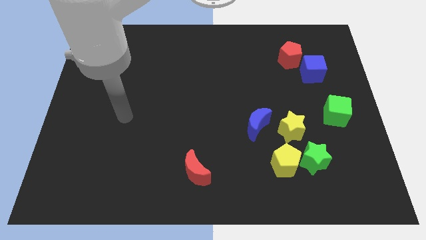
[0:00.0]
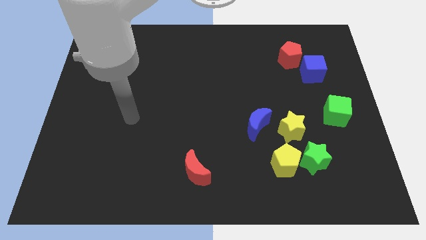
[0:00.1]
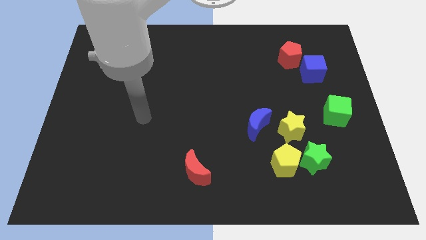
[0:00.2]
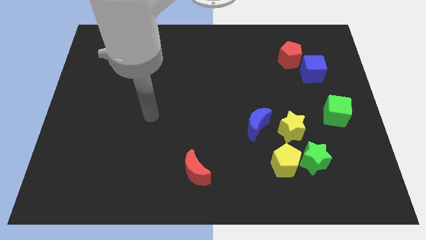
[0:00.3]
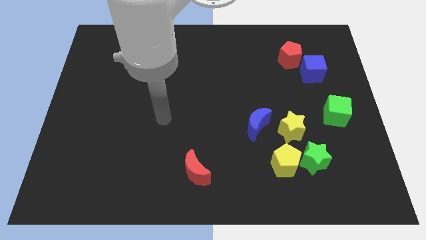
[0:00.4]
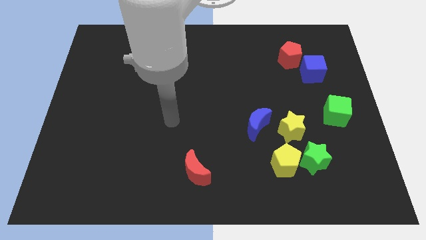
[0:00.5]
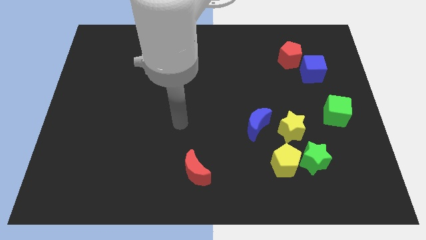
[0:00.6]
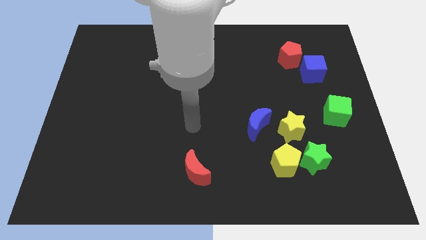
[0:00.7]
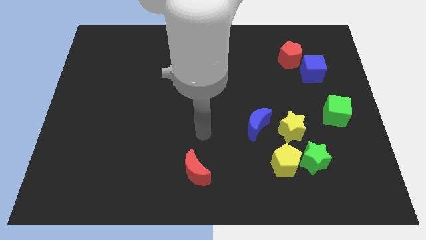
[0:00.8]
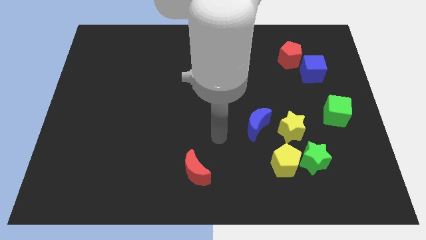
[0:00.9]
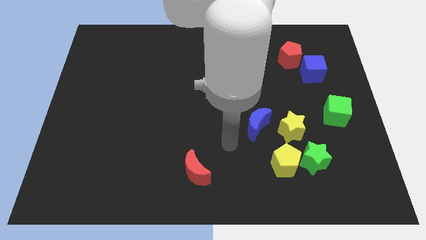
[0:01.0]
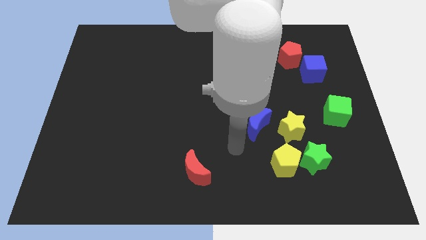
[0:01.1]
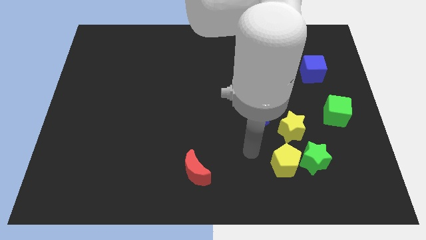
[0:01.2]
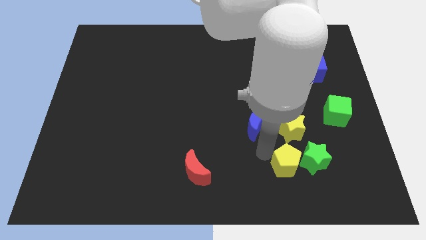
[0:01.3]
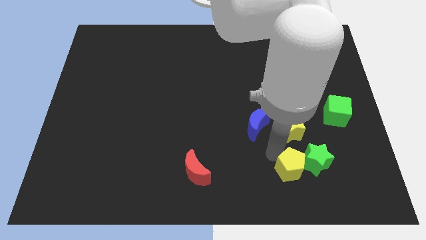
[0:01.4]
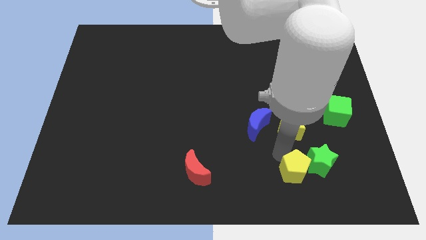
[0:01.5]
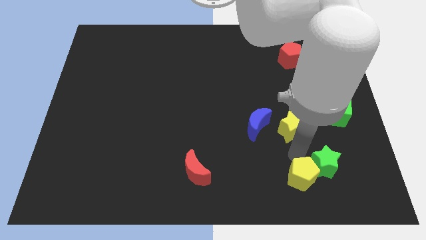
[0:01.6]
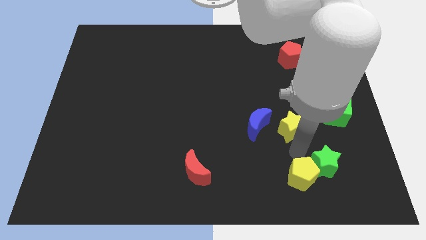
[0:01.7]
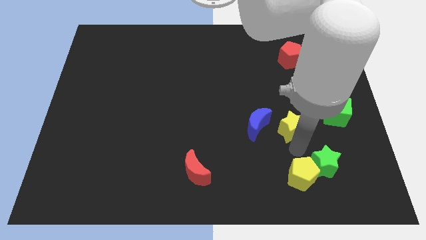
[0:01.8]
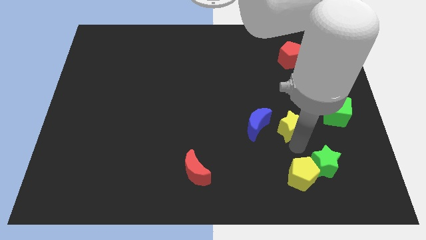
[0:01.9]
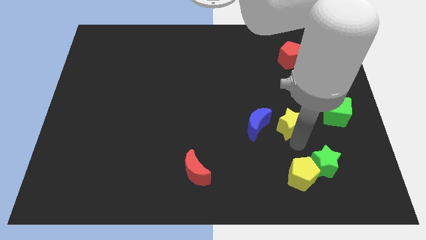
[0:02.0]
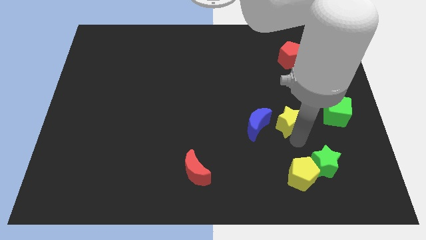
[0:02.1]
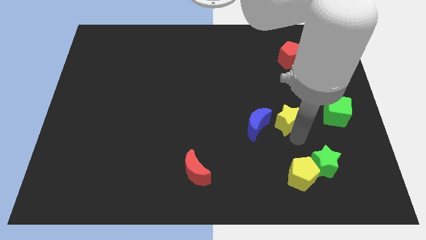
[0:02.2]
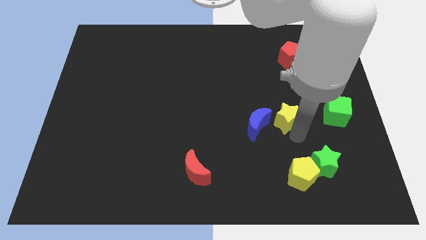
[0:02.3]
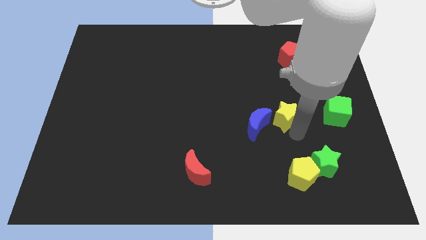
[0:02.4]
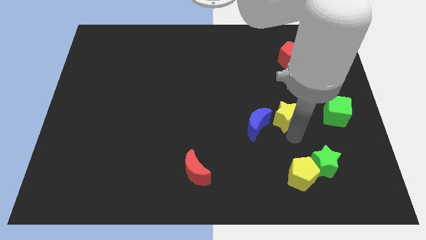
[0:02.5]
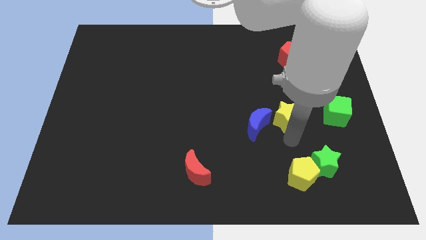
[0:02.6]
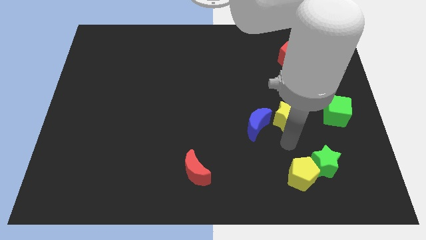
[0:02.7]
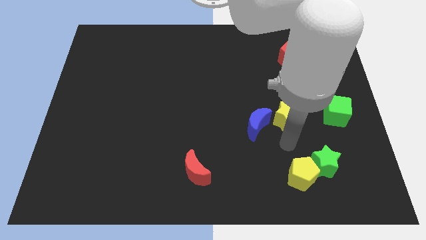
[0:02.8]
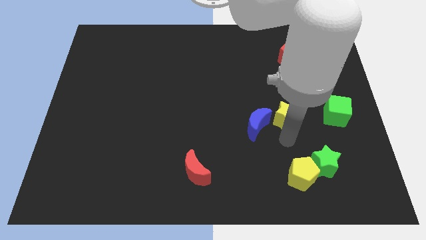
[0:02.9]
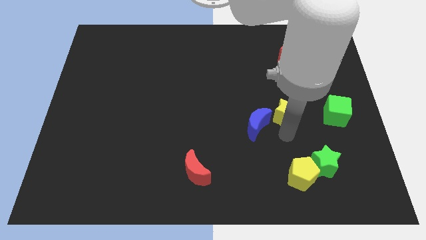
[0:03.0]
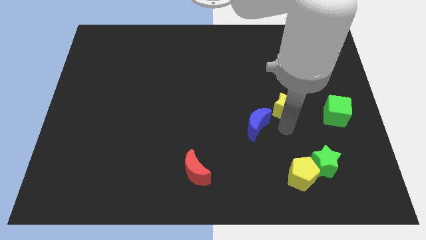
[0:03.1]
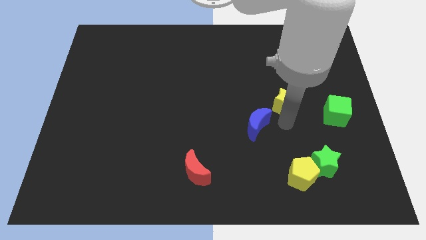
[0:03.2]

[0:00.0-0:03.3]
slide the yellow star somewhat upwards

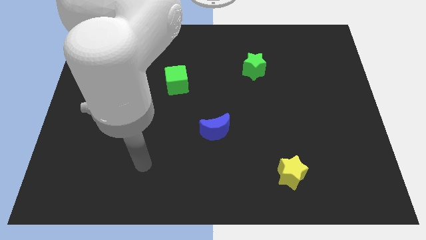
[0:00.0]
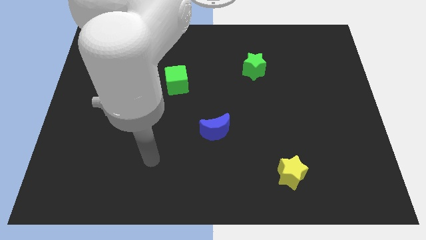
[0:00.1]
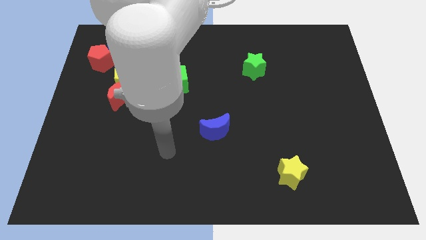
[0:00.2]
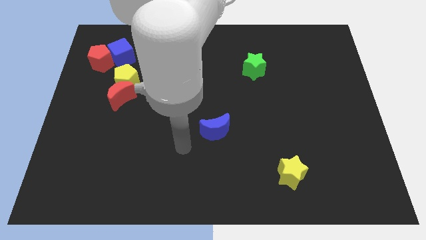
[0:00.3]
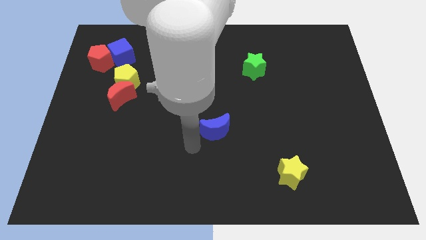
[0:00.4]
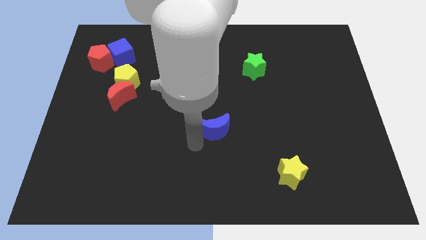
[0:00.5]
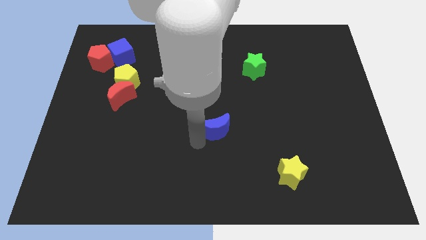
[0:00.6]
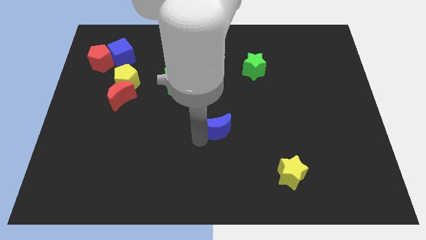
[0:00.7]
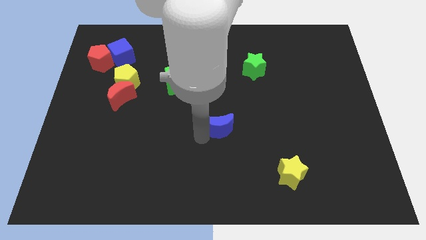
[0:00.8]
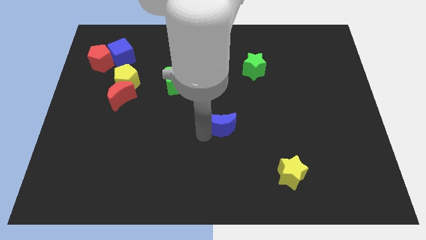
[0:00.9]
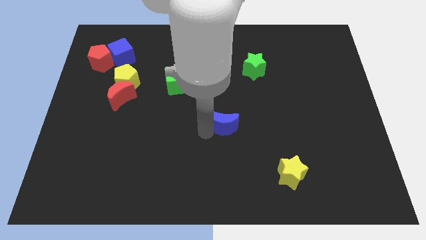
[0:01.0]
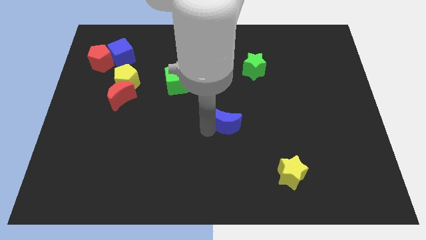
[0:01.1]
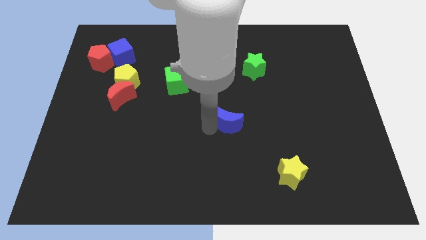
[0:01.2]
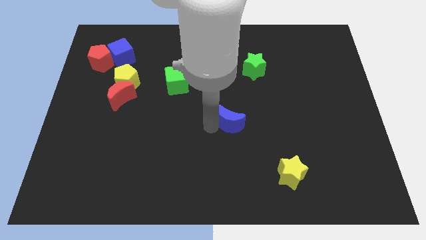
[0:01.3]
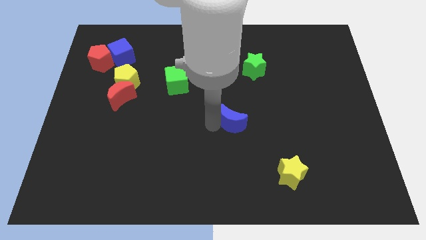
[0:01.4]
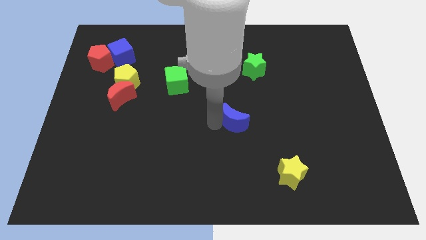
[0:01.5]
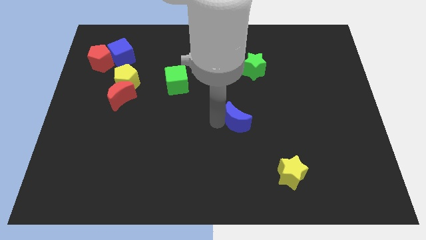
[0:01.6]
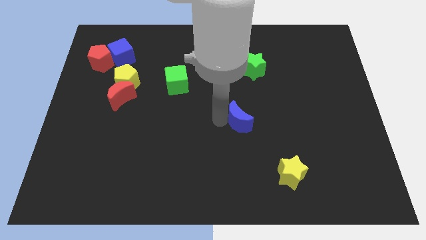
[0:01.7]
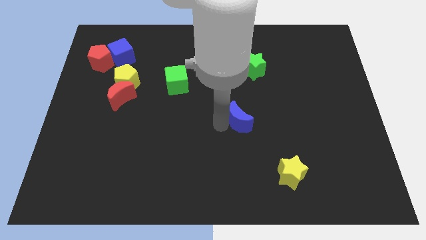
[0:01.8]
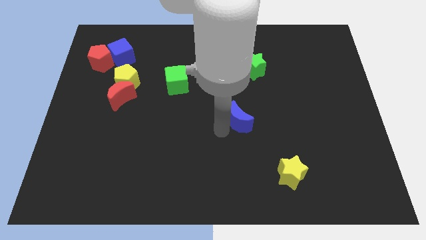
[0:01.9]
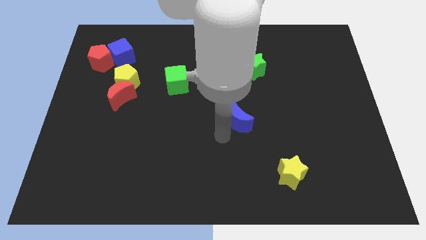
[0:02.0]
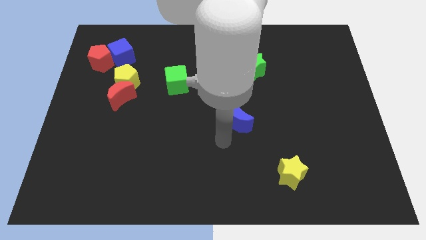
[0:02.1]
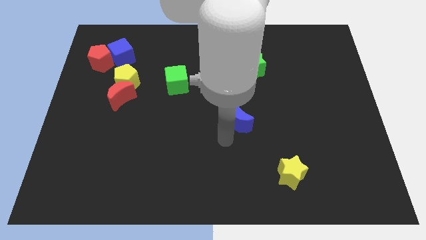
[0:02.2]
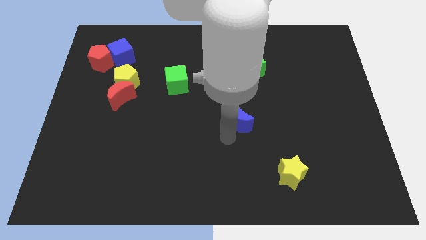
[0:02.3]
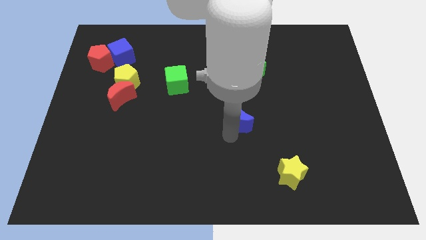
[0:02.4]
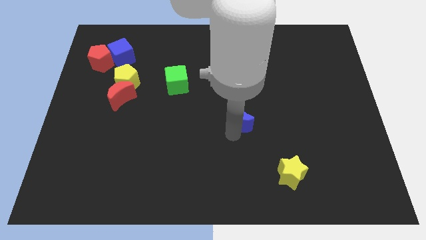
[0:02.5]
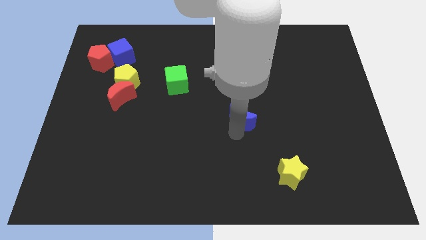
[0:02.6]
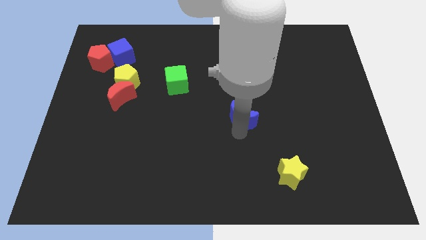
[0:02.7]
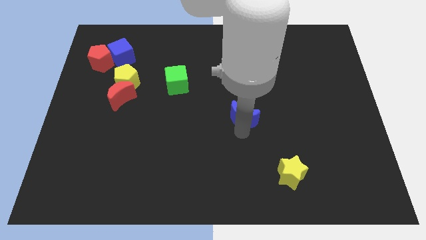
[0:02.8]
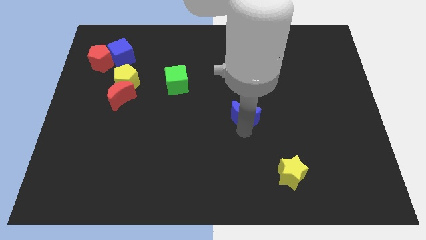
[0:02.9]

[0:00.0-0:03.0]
move the blue moon up and then to the right a little

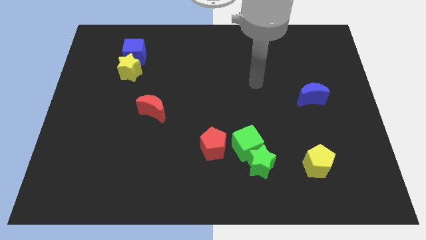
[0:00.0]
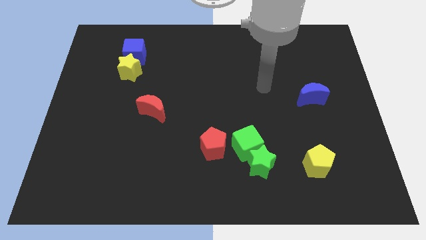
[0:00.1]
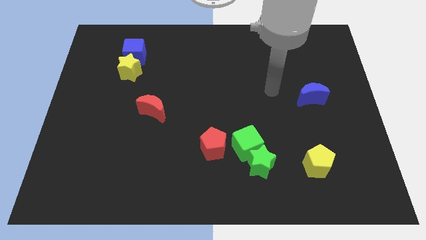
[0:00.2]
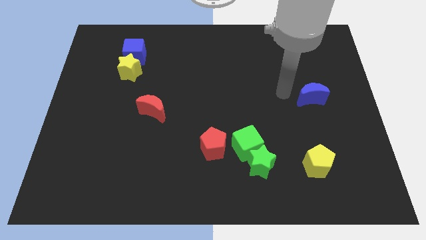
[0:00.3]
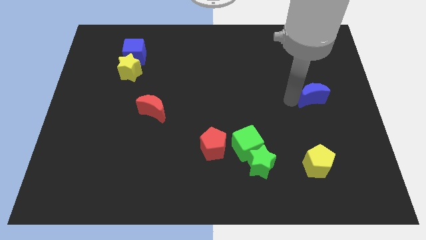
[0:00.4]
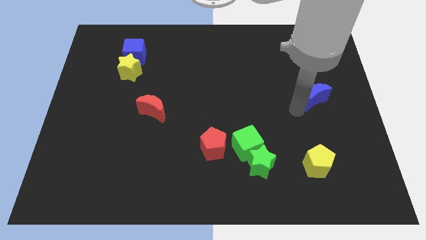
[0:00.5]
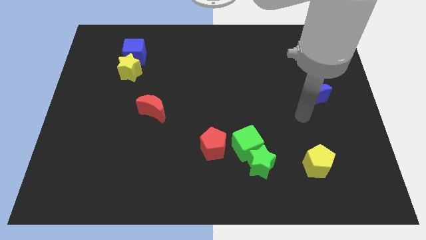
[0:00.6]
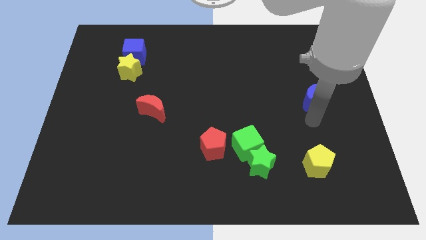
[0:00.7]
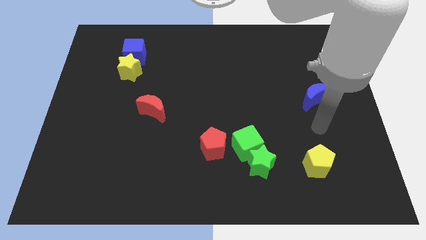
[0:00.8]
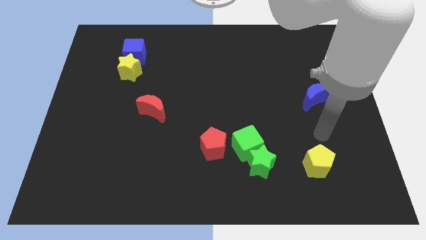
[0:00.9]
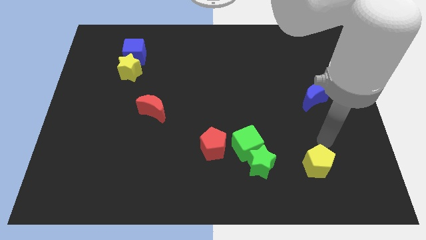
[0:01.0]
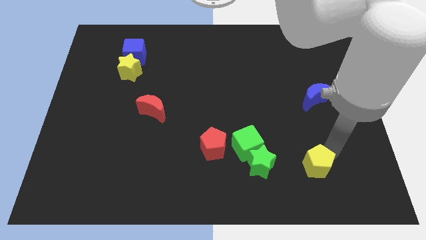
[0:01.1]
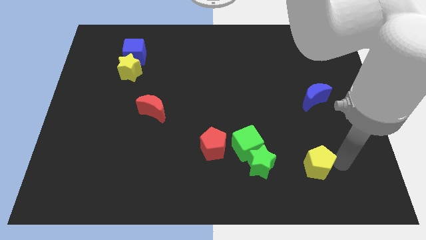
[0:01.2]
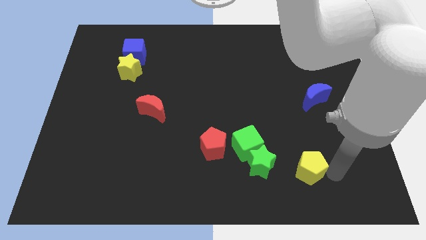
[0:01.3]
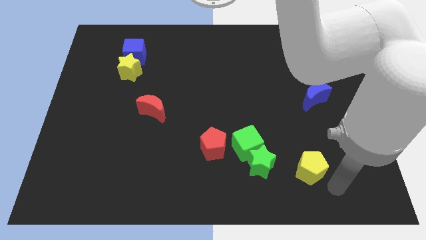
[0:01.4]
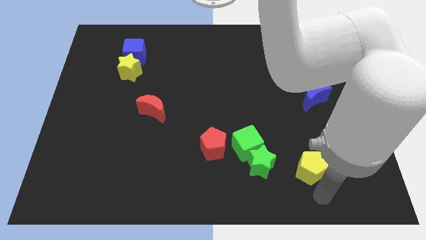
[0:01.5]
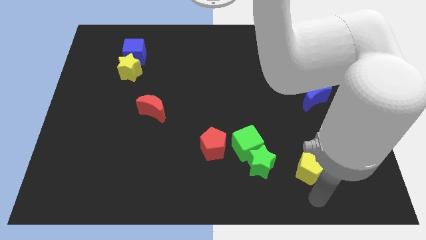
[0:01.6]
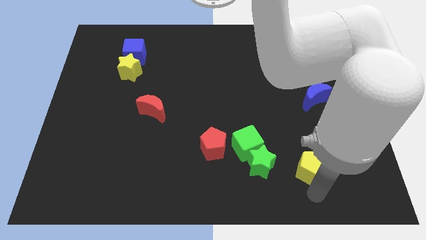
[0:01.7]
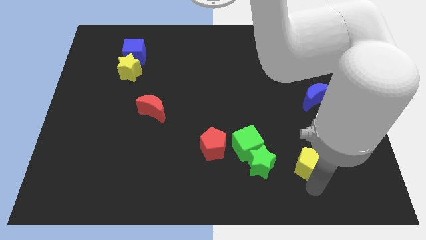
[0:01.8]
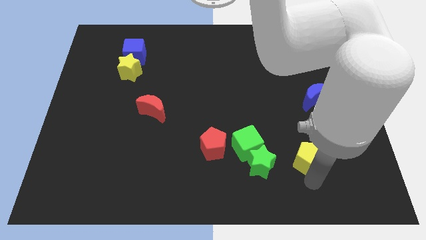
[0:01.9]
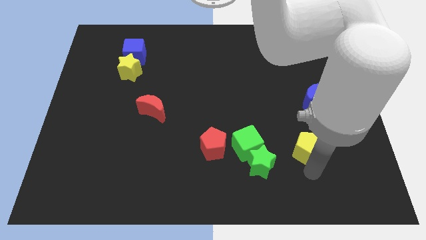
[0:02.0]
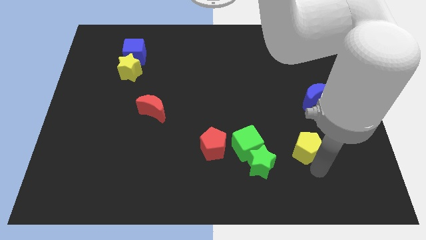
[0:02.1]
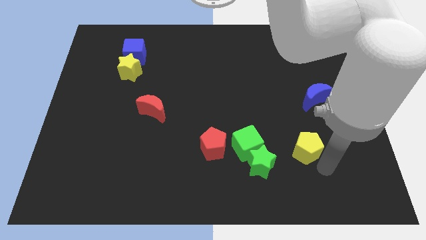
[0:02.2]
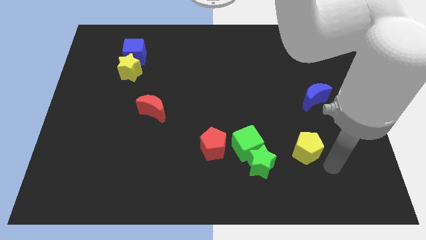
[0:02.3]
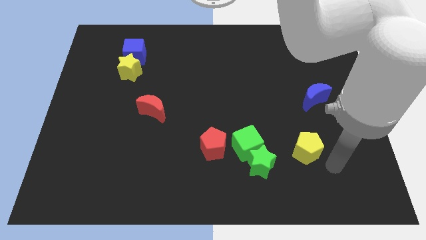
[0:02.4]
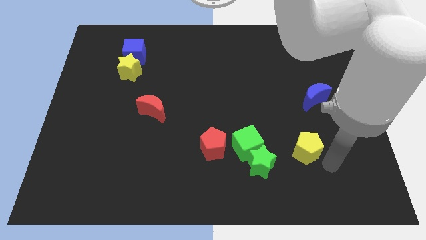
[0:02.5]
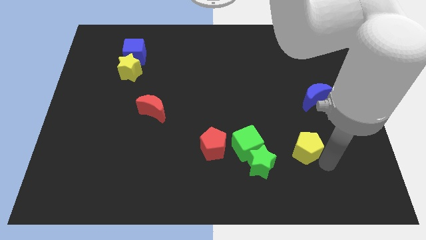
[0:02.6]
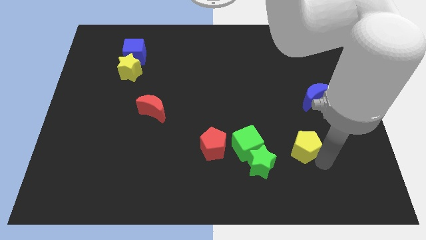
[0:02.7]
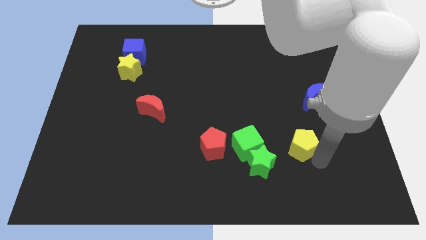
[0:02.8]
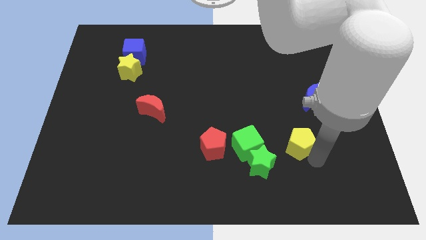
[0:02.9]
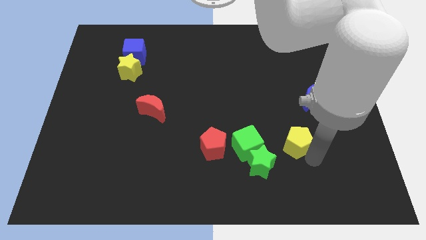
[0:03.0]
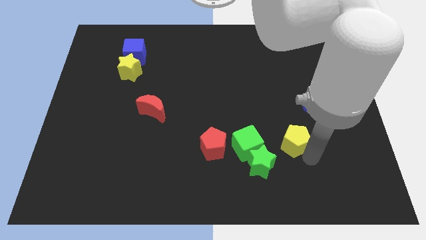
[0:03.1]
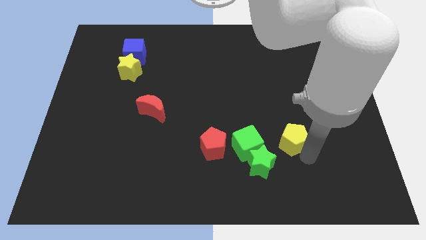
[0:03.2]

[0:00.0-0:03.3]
move the yellow pentagon somewhat upwards and then left
